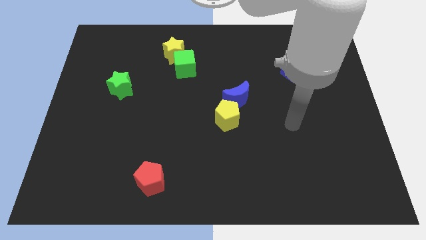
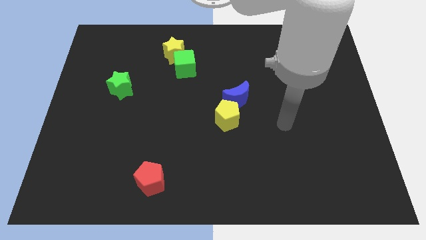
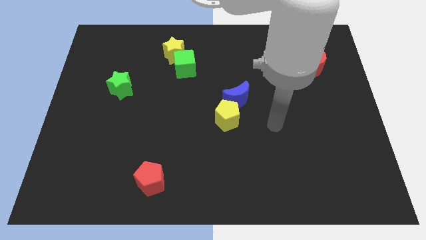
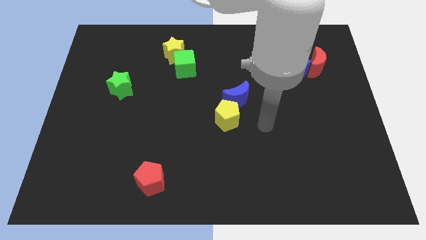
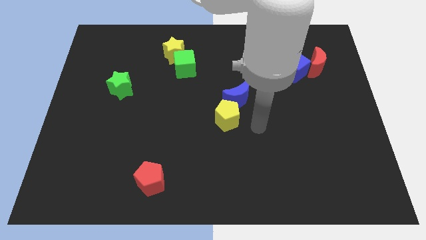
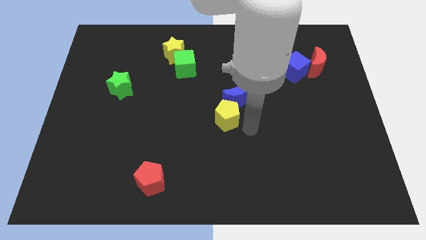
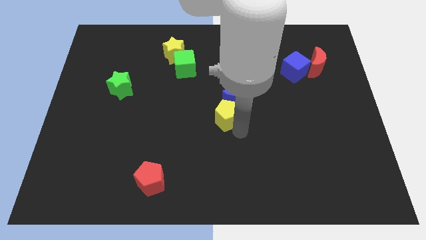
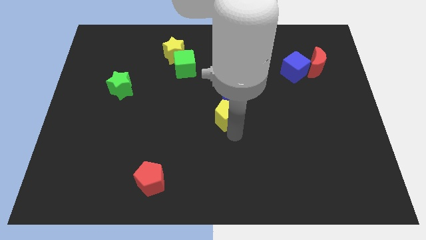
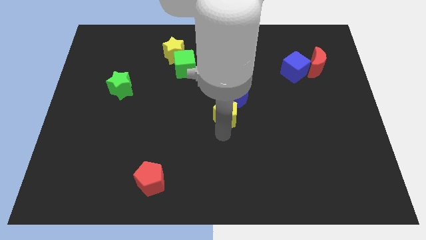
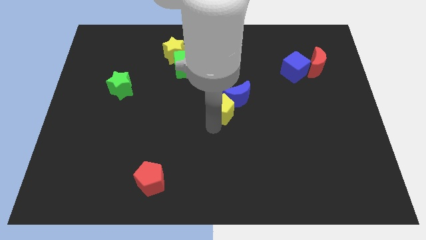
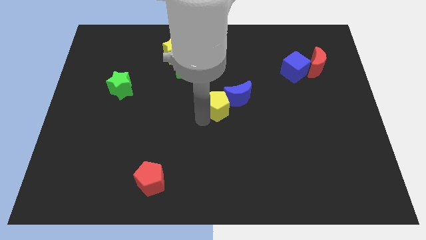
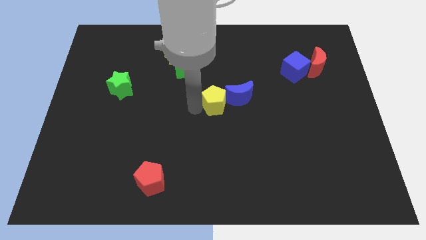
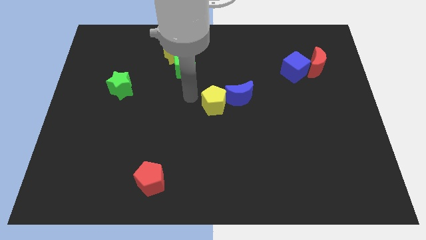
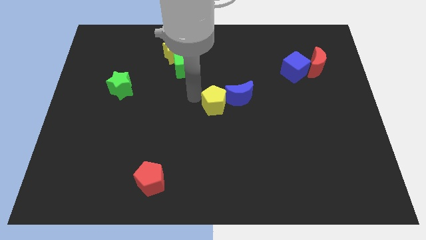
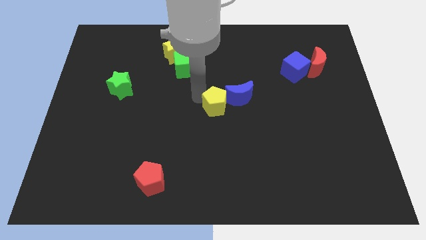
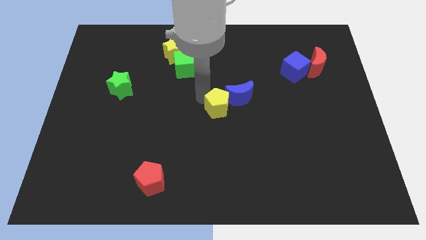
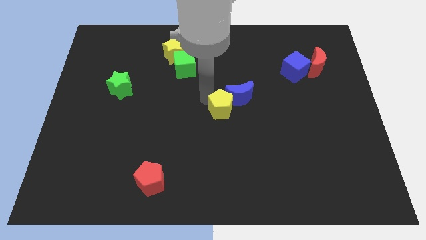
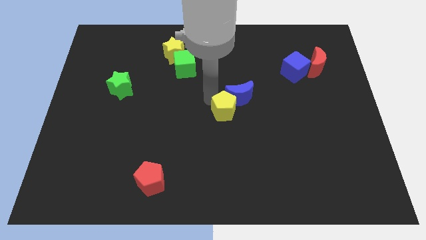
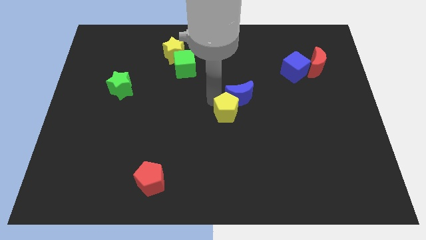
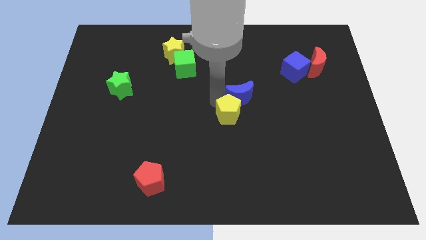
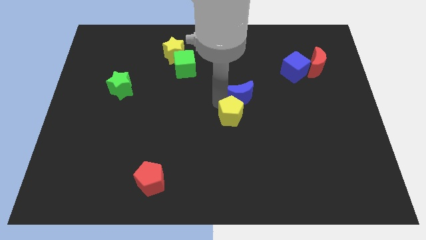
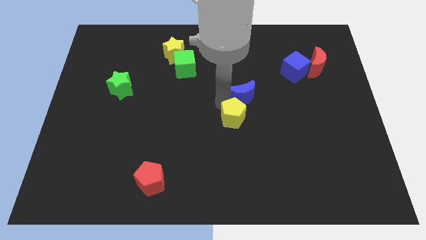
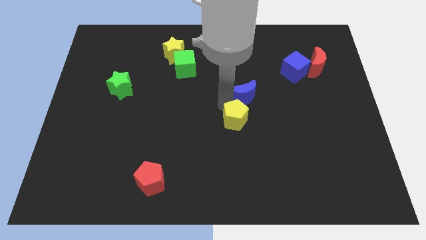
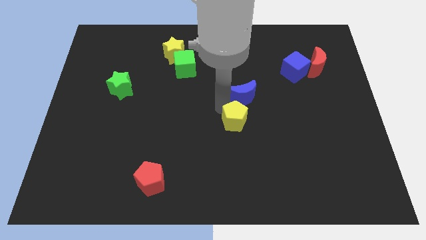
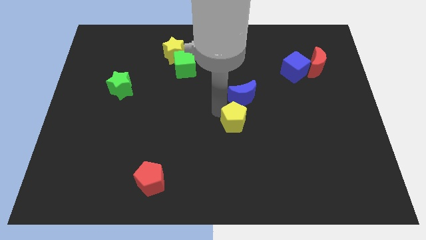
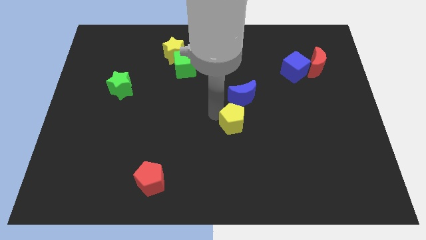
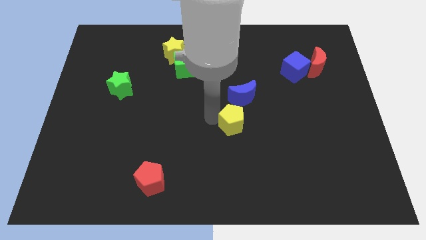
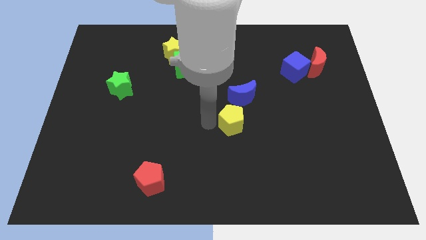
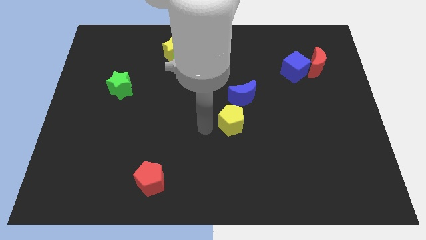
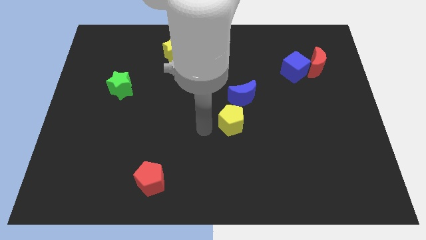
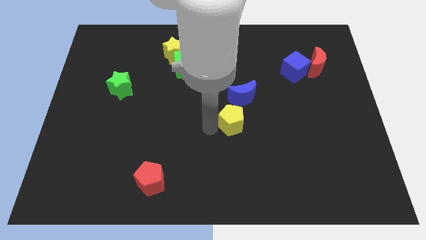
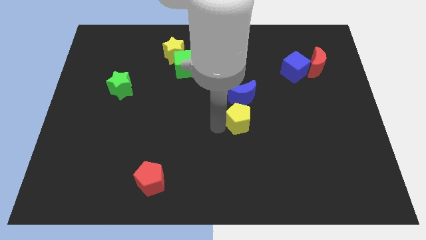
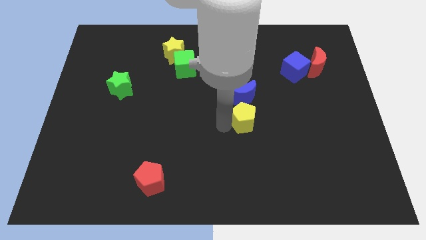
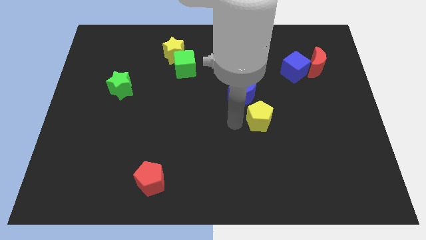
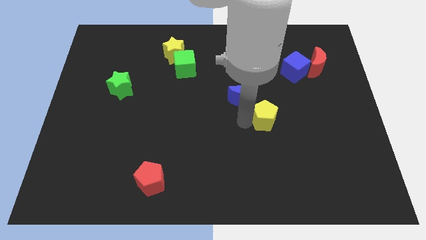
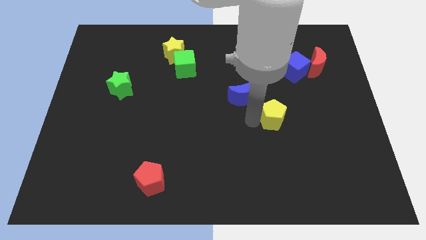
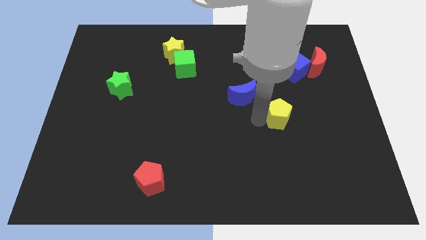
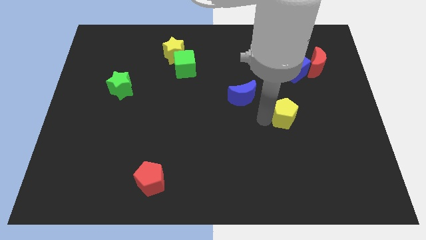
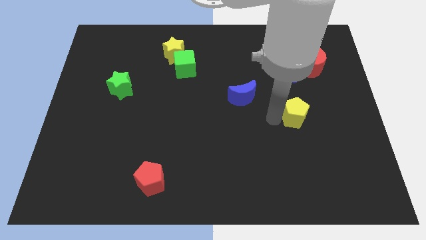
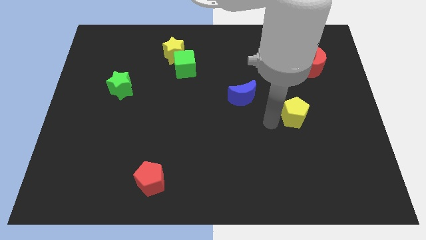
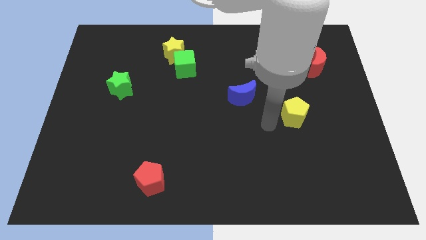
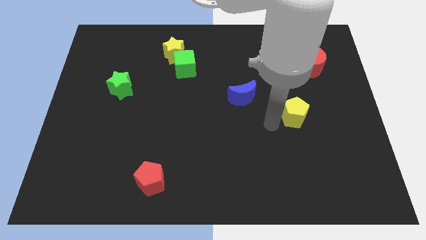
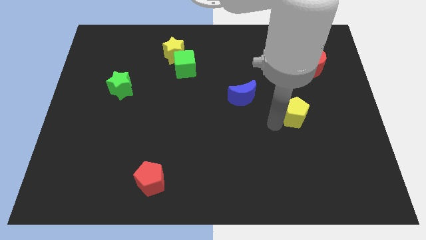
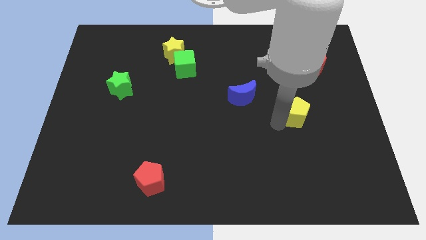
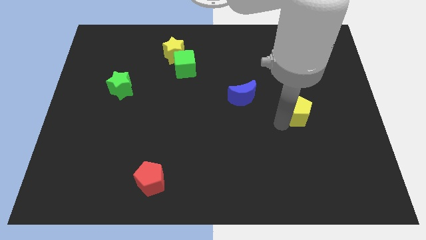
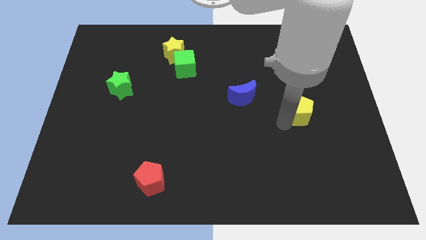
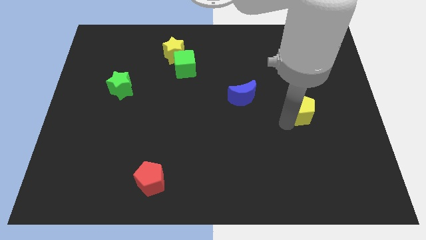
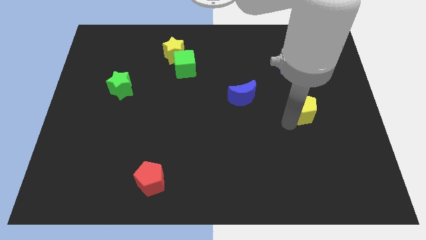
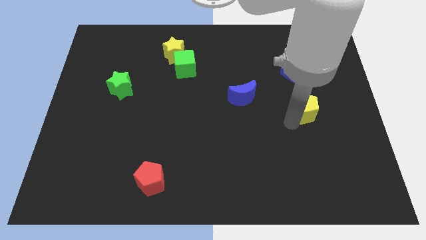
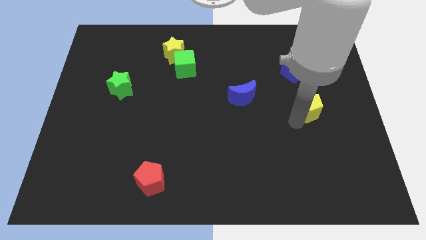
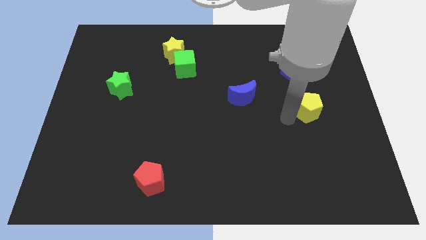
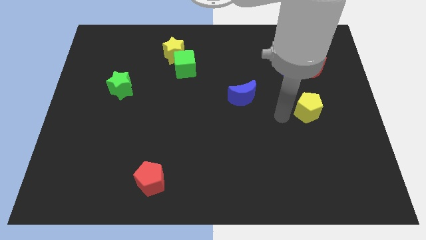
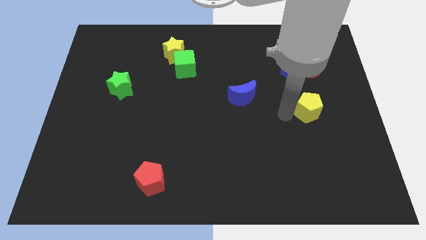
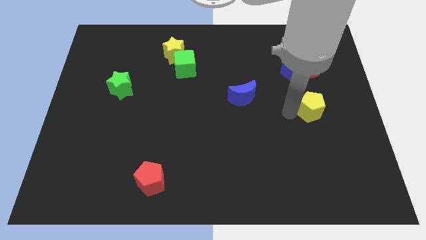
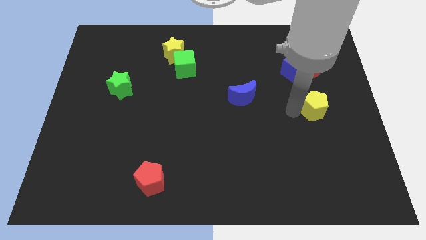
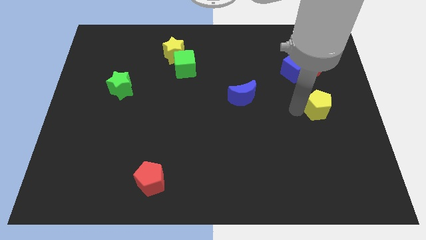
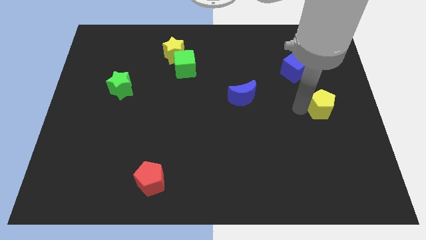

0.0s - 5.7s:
slide the yellow pentagon to the right side of the board

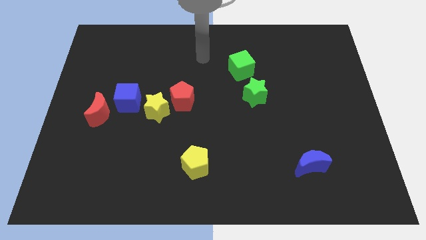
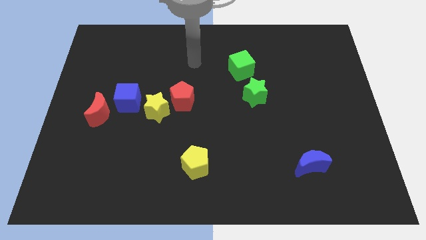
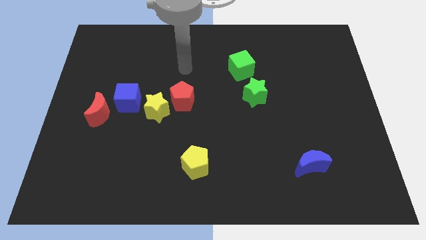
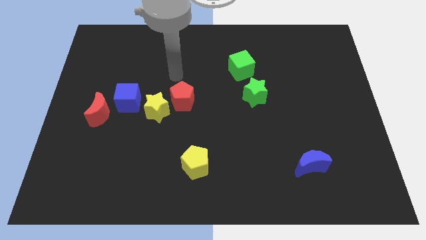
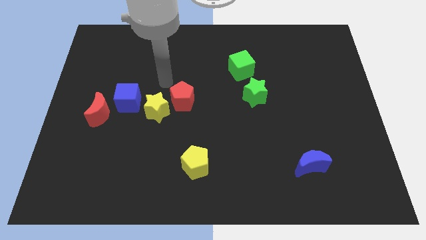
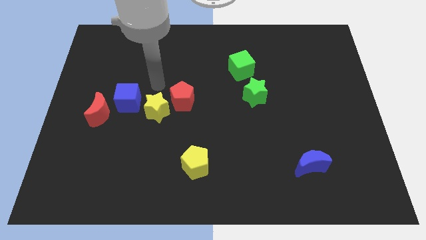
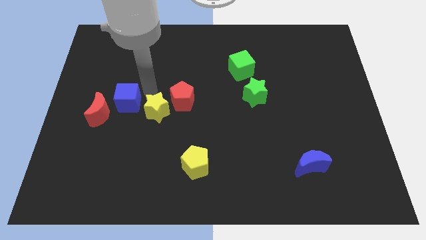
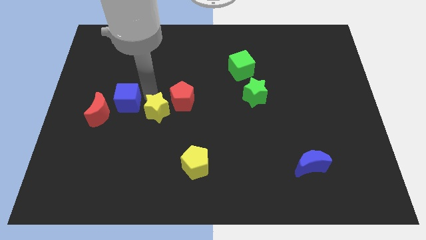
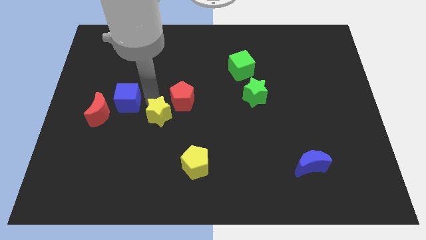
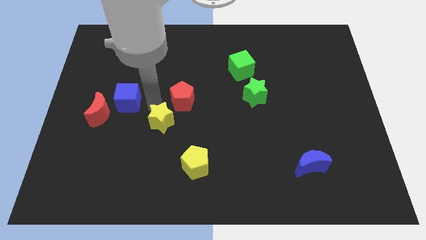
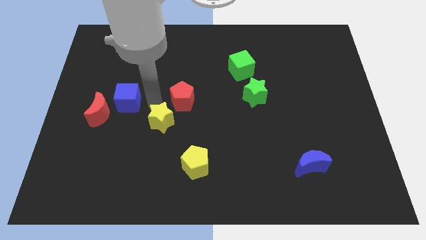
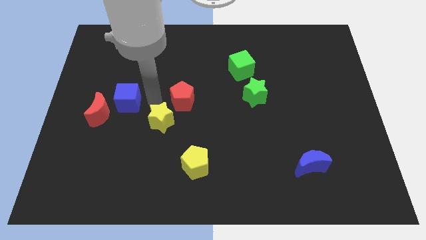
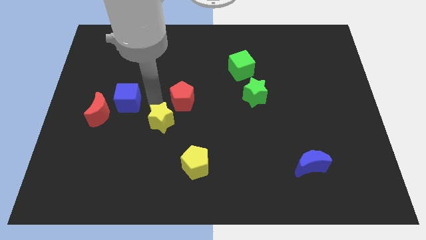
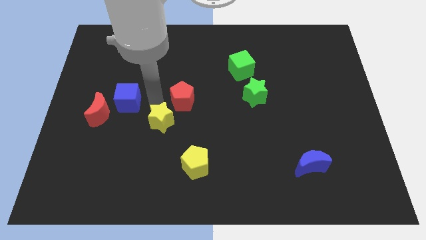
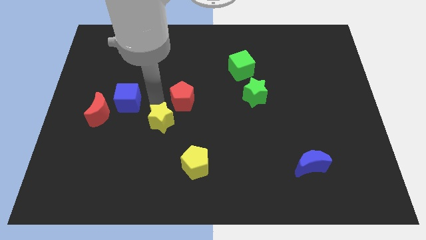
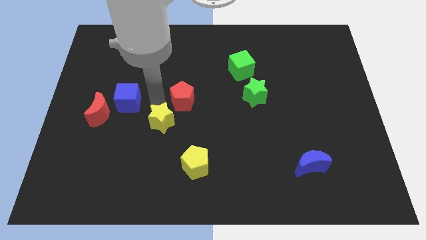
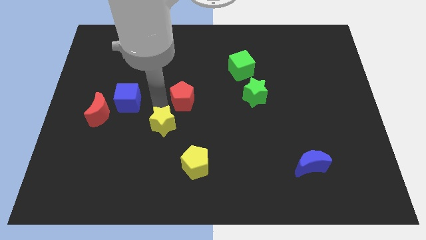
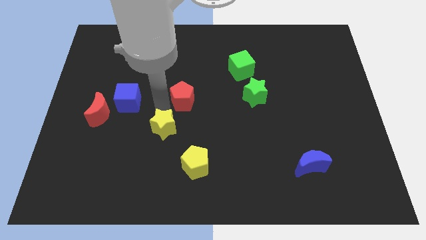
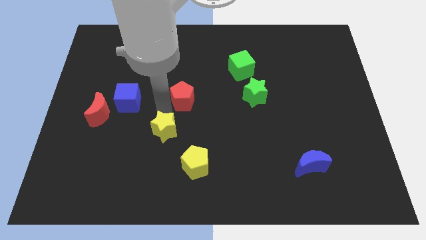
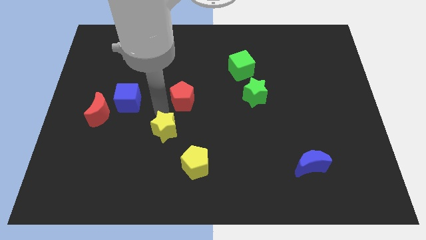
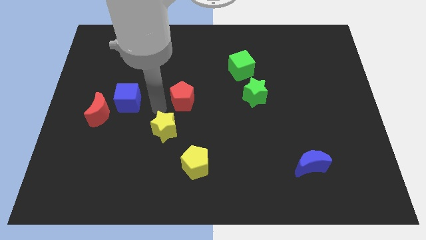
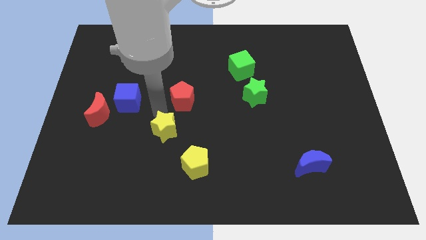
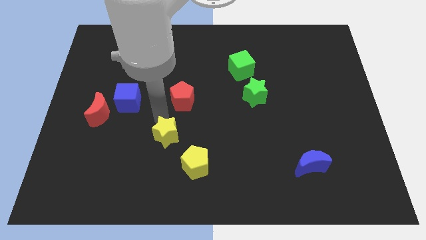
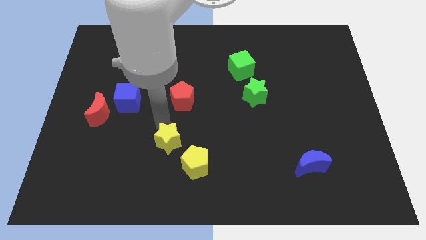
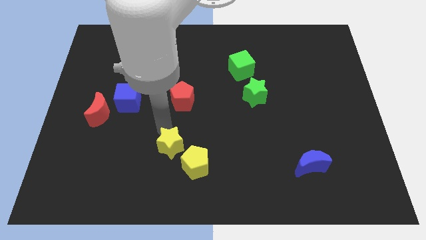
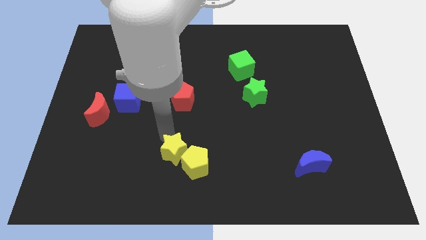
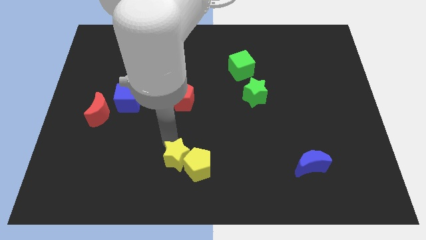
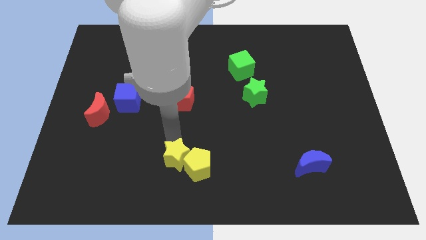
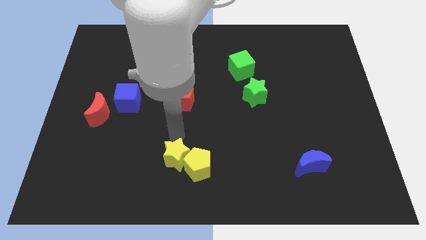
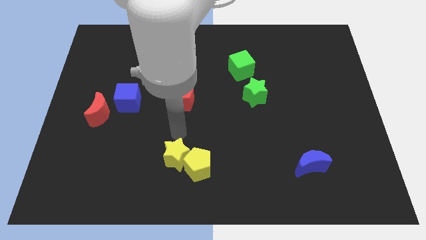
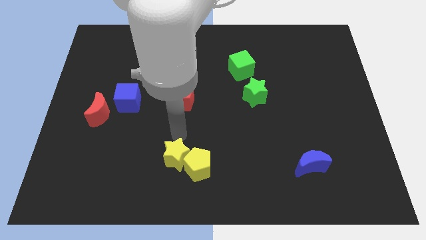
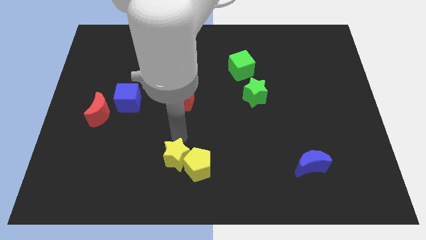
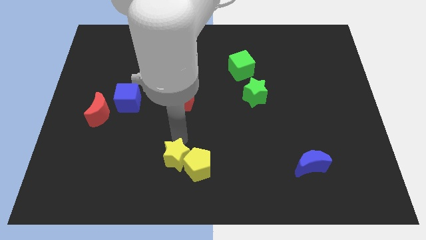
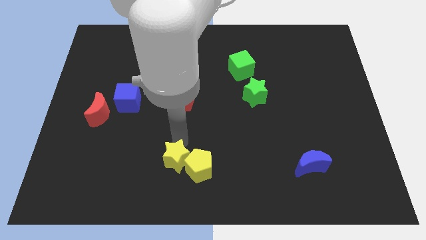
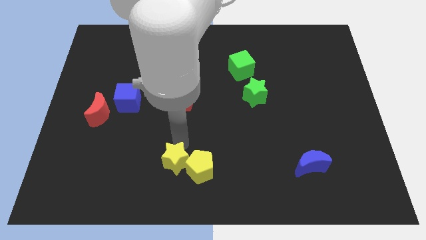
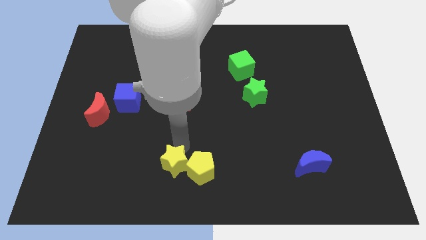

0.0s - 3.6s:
push the yellow star to the bottom side
